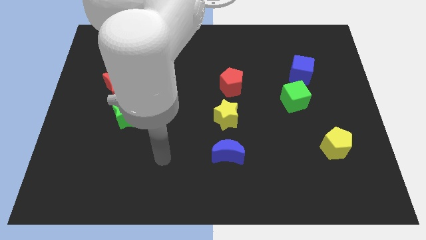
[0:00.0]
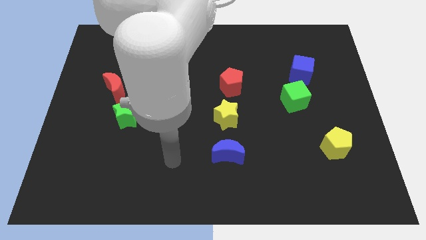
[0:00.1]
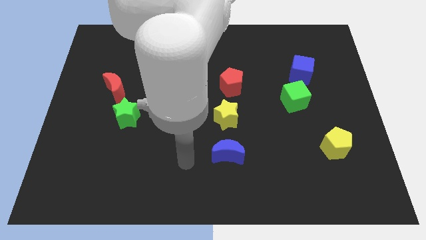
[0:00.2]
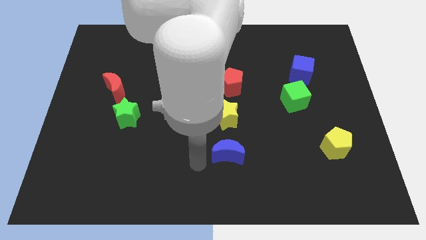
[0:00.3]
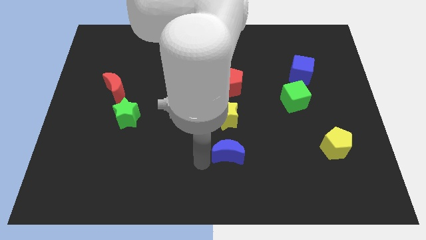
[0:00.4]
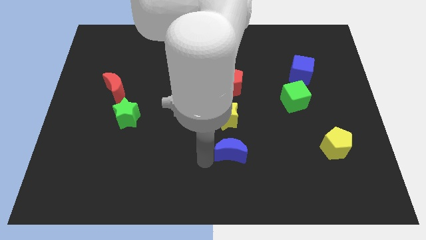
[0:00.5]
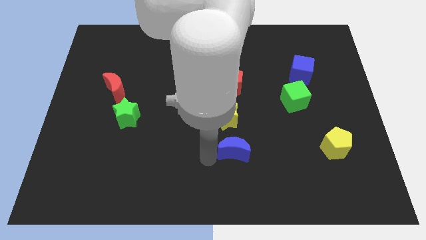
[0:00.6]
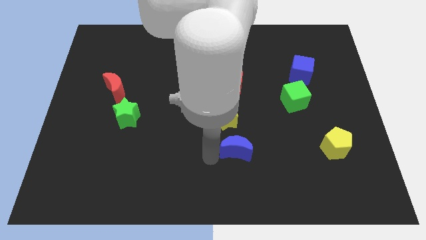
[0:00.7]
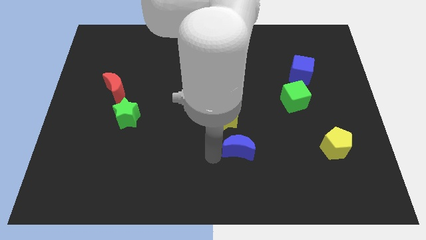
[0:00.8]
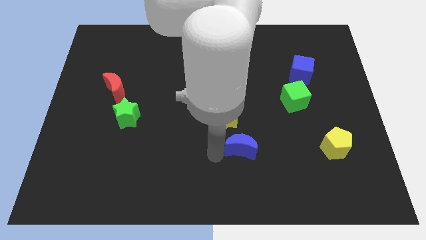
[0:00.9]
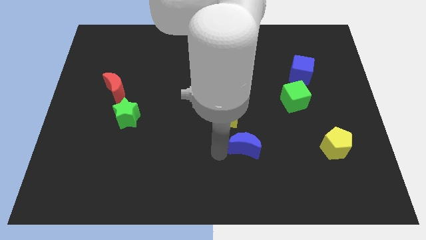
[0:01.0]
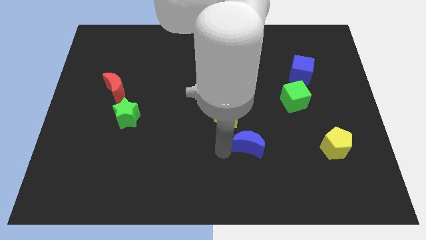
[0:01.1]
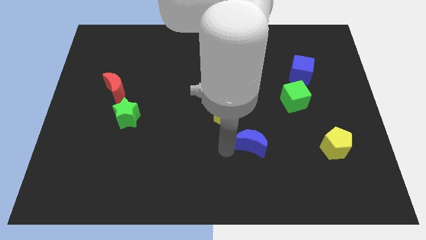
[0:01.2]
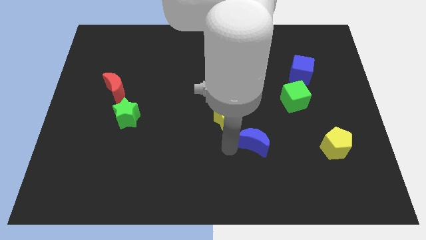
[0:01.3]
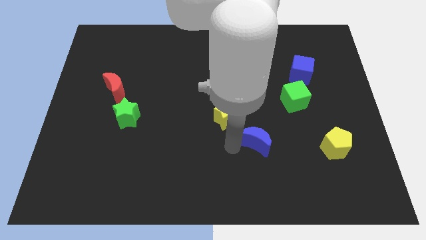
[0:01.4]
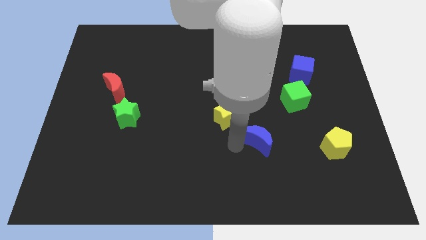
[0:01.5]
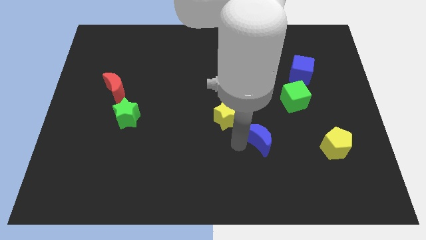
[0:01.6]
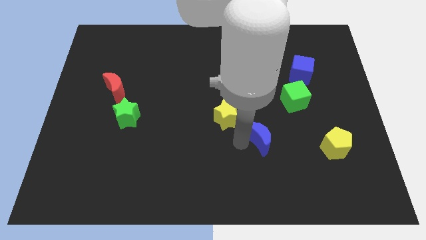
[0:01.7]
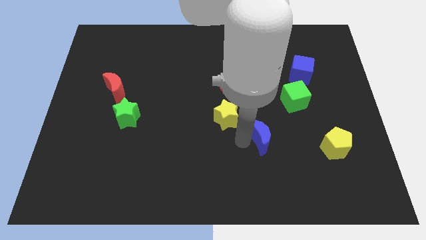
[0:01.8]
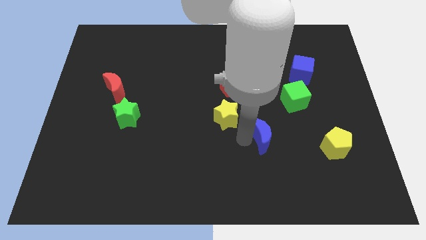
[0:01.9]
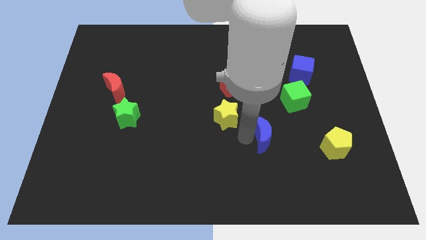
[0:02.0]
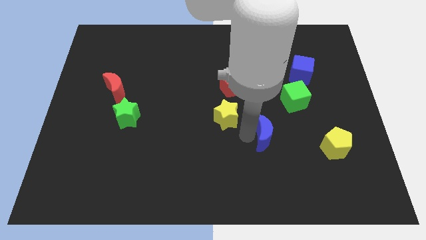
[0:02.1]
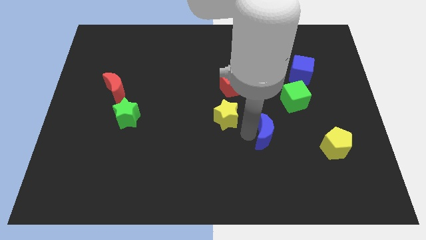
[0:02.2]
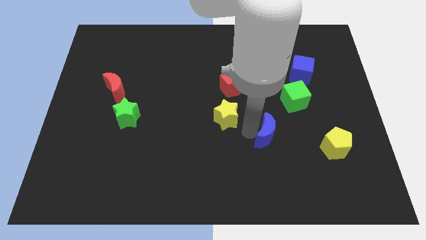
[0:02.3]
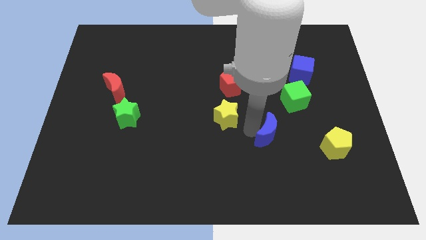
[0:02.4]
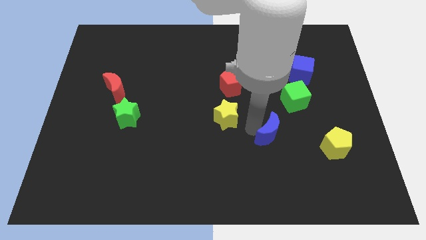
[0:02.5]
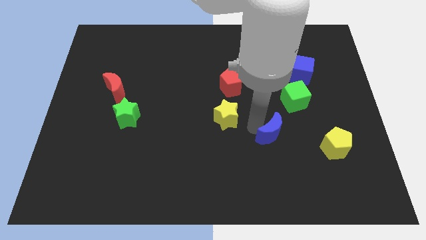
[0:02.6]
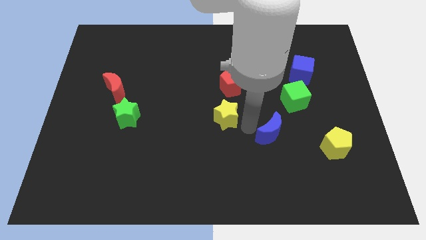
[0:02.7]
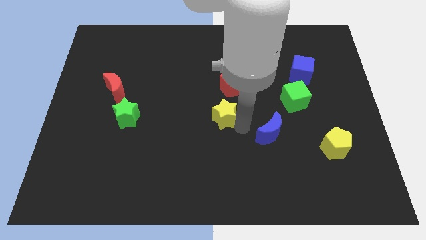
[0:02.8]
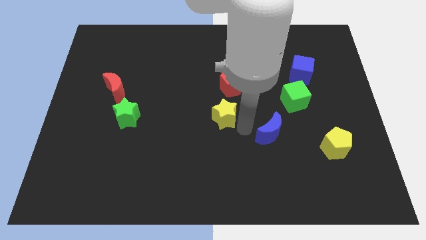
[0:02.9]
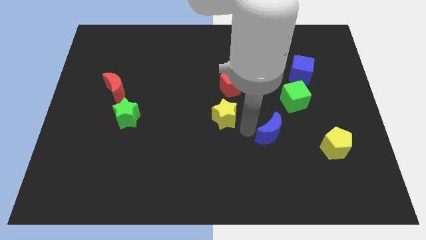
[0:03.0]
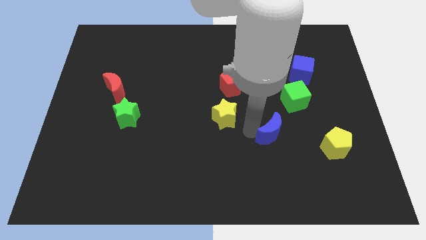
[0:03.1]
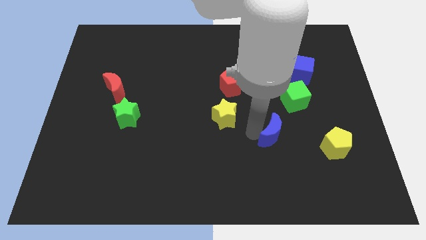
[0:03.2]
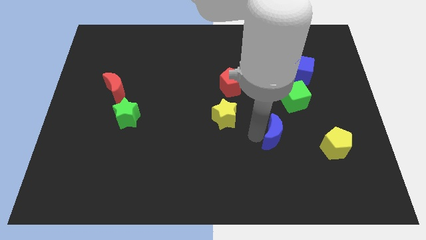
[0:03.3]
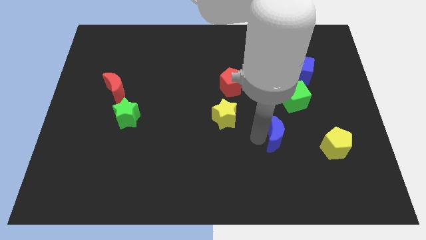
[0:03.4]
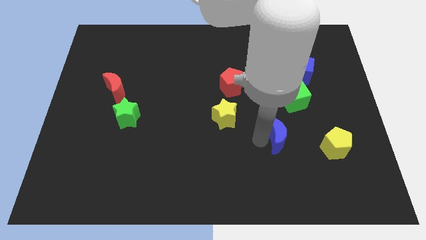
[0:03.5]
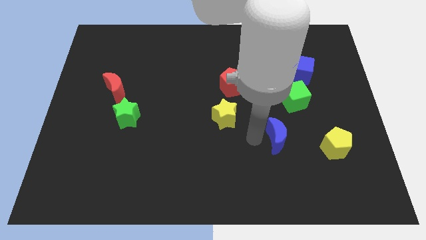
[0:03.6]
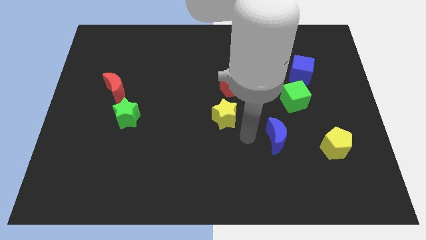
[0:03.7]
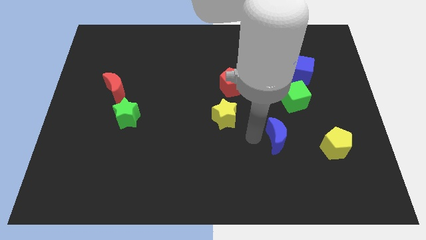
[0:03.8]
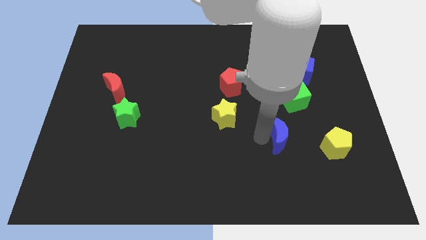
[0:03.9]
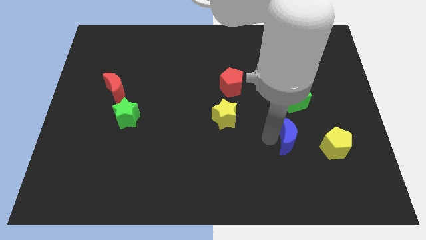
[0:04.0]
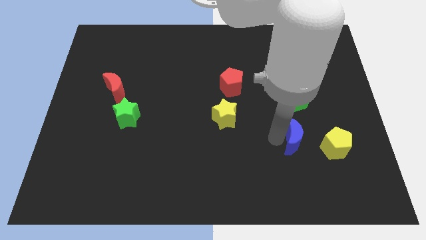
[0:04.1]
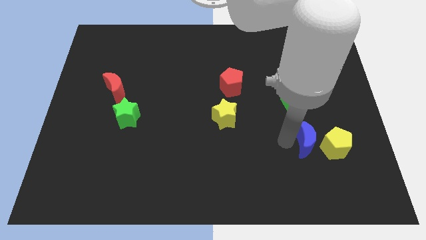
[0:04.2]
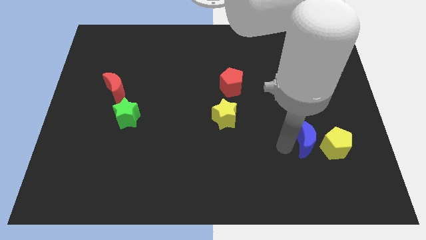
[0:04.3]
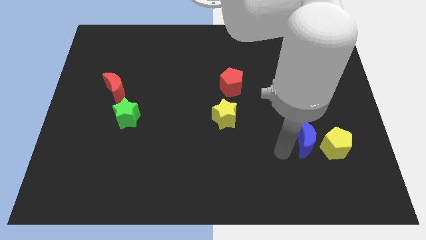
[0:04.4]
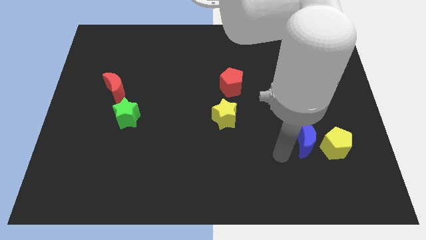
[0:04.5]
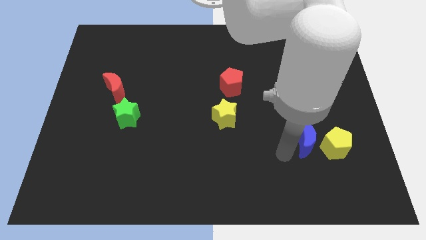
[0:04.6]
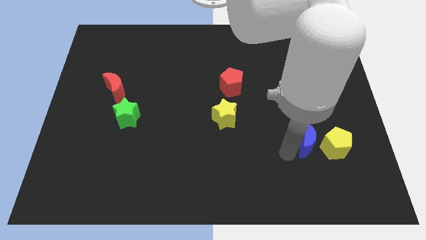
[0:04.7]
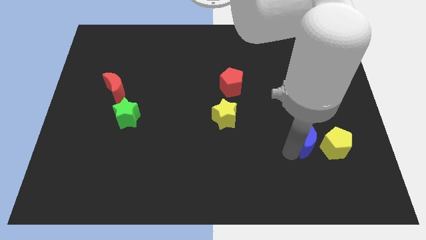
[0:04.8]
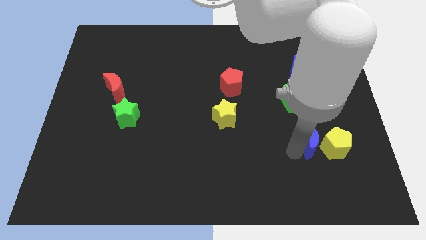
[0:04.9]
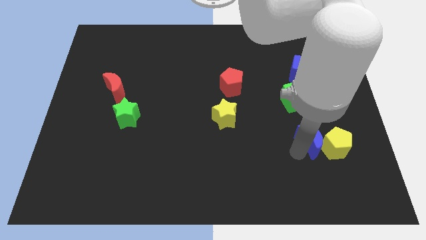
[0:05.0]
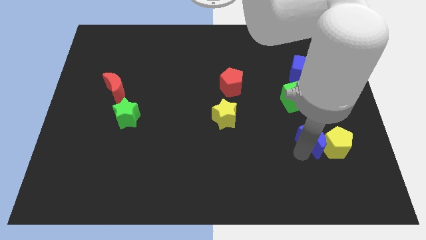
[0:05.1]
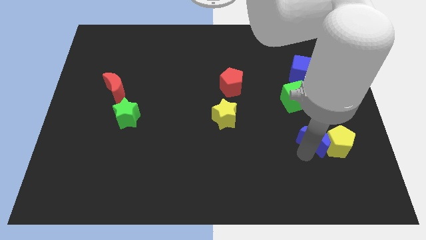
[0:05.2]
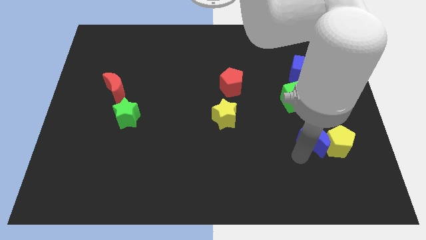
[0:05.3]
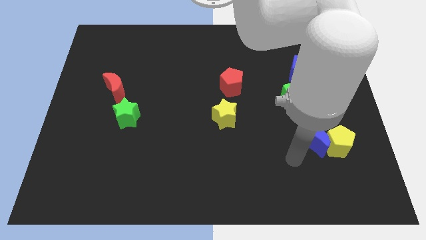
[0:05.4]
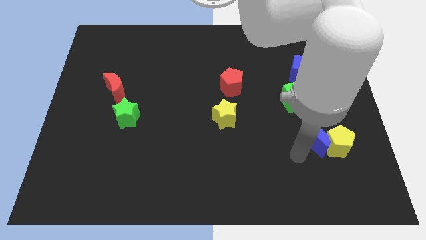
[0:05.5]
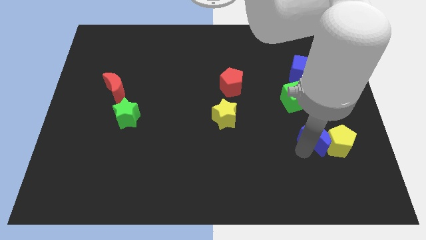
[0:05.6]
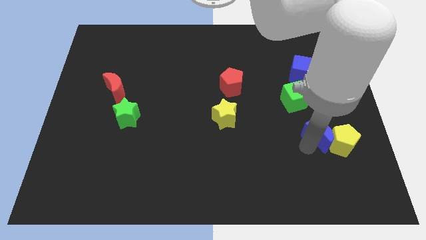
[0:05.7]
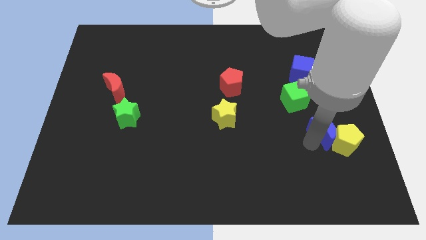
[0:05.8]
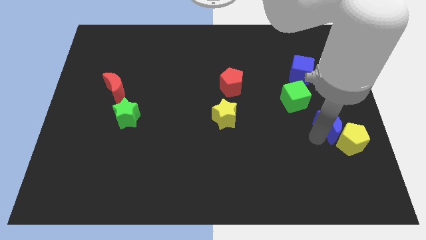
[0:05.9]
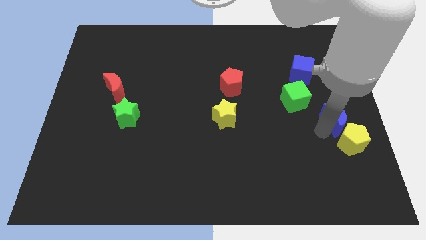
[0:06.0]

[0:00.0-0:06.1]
push the blue moon to the right side
